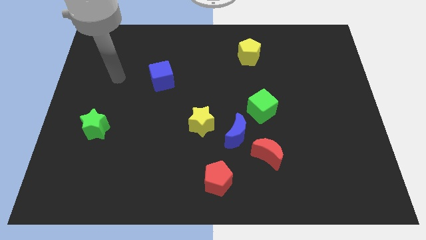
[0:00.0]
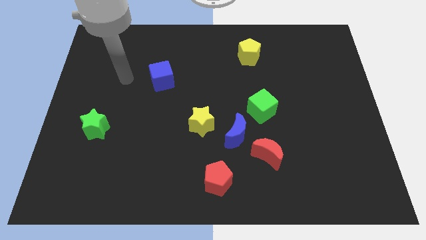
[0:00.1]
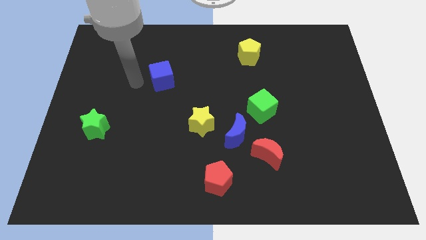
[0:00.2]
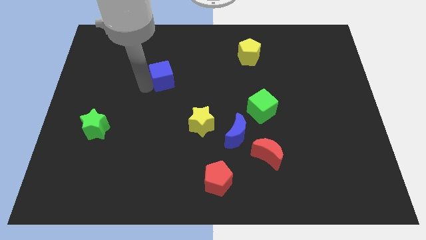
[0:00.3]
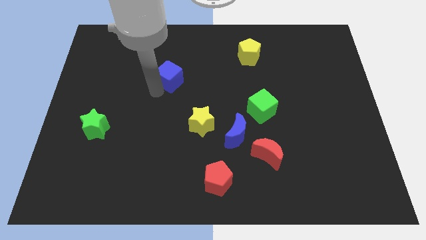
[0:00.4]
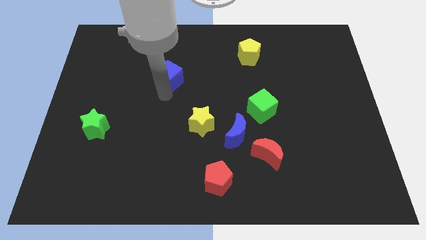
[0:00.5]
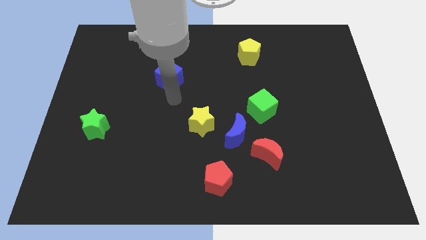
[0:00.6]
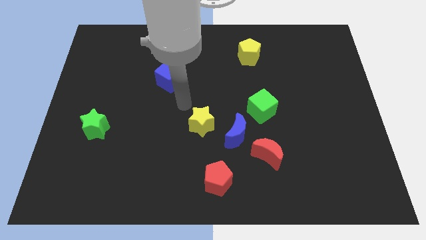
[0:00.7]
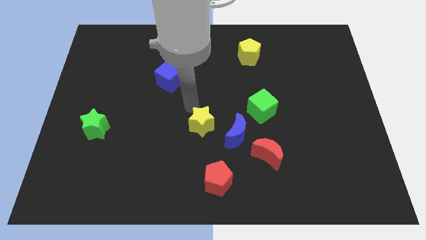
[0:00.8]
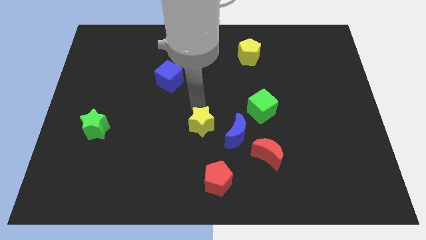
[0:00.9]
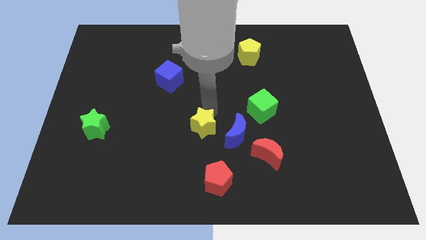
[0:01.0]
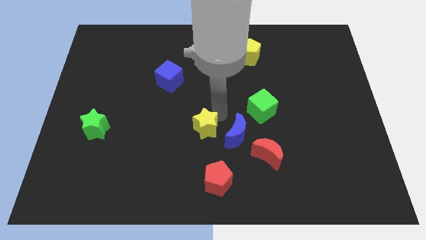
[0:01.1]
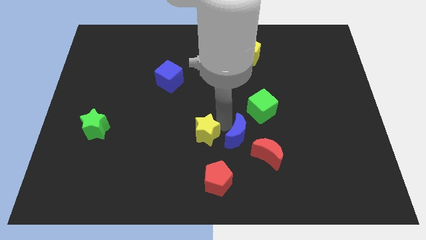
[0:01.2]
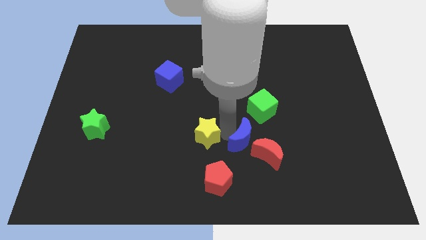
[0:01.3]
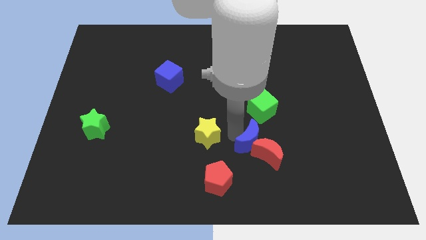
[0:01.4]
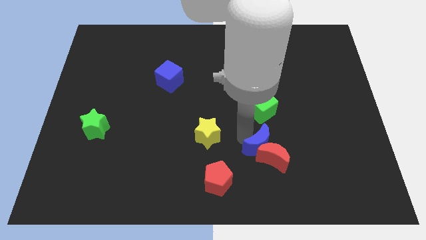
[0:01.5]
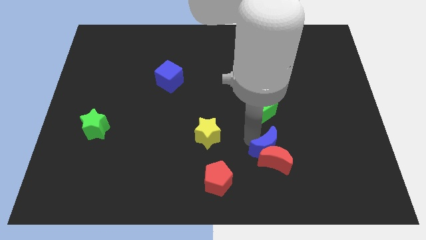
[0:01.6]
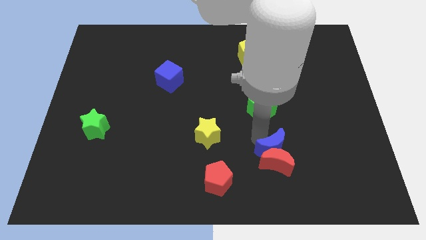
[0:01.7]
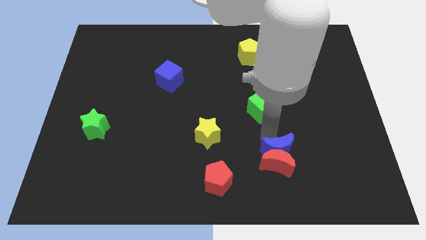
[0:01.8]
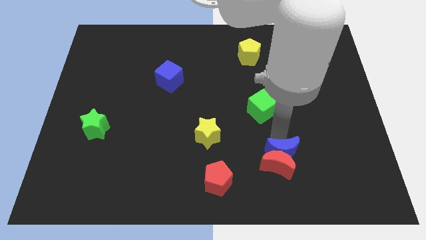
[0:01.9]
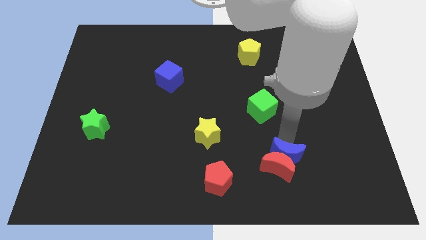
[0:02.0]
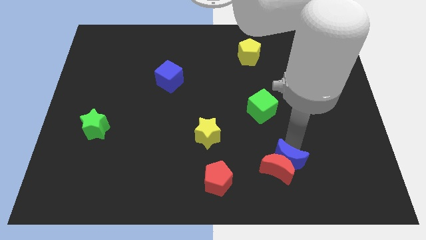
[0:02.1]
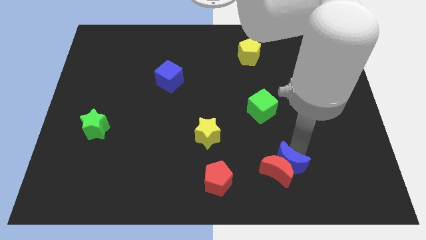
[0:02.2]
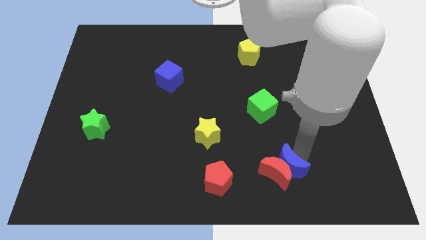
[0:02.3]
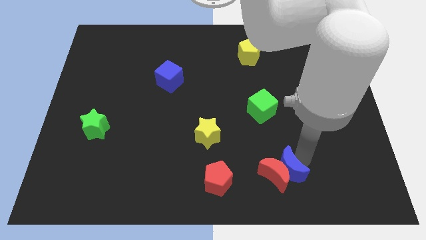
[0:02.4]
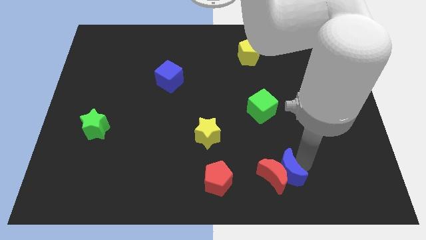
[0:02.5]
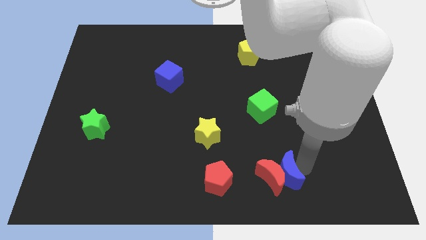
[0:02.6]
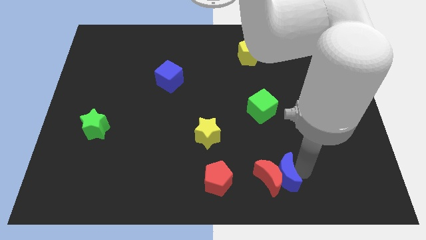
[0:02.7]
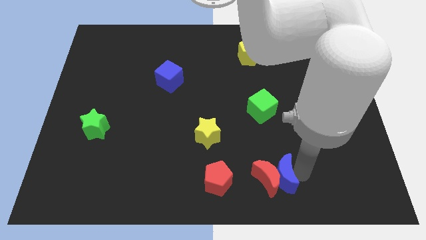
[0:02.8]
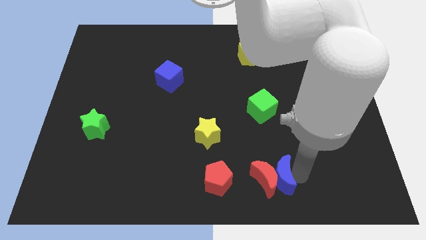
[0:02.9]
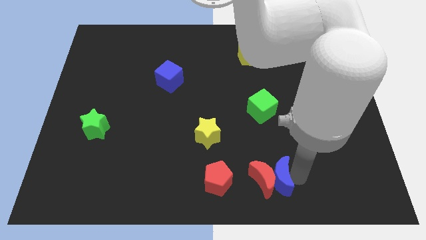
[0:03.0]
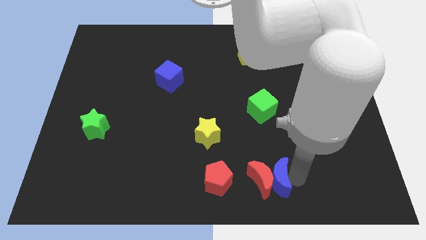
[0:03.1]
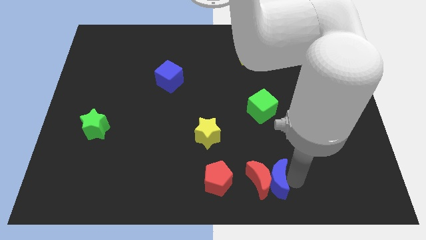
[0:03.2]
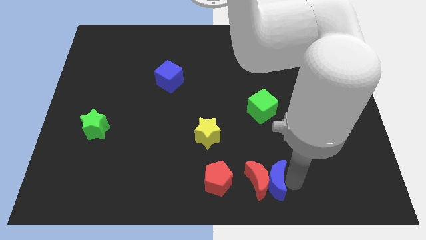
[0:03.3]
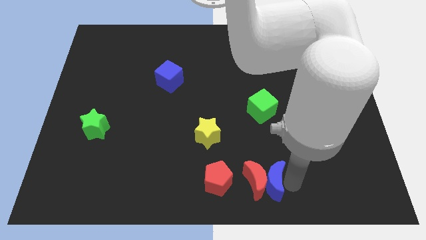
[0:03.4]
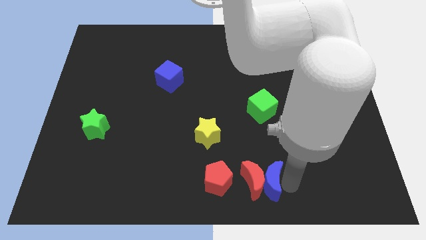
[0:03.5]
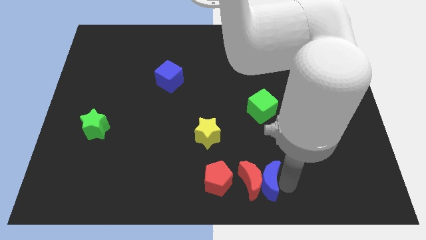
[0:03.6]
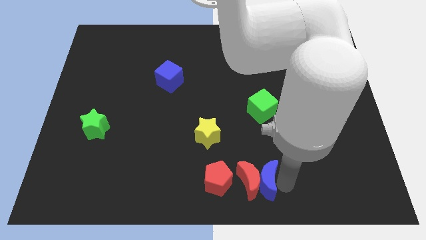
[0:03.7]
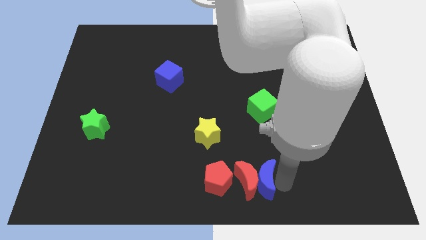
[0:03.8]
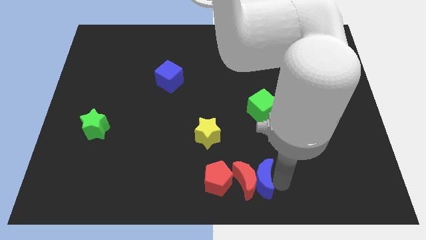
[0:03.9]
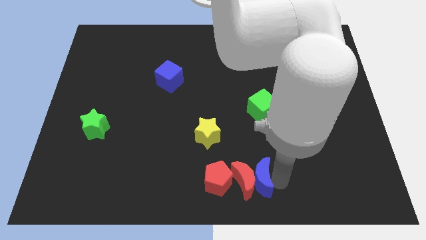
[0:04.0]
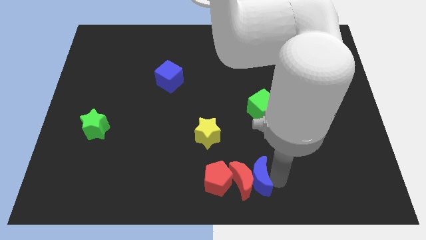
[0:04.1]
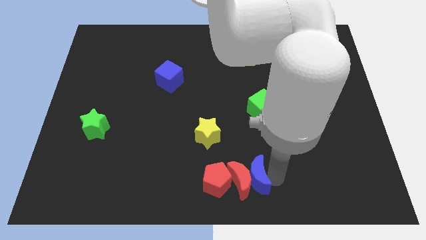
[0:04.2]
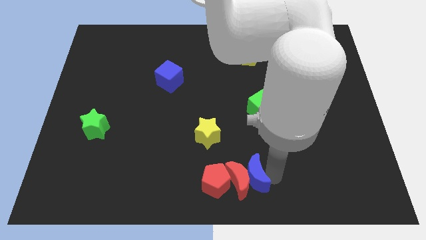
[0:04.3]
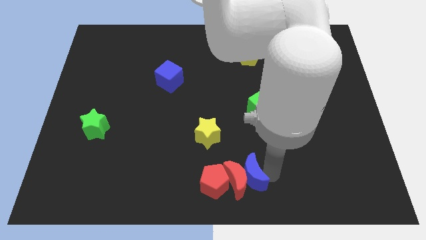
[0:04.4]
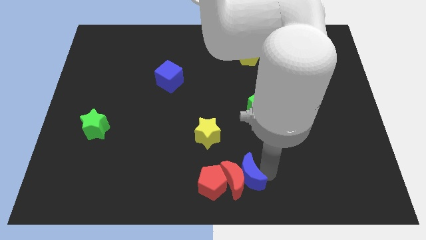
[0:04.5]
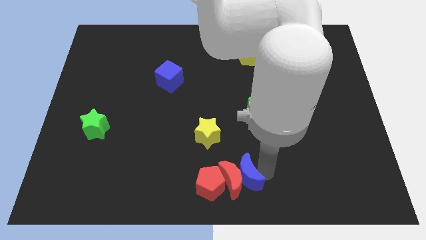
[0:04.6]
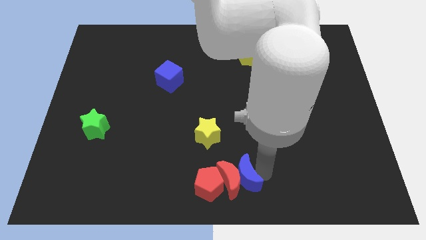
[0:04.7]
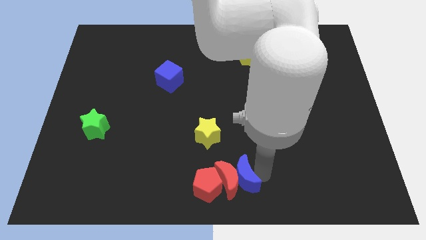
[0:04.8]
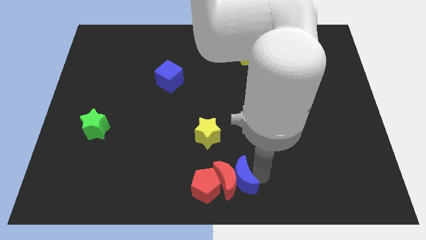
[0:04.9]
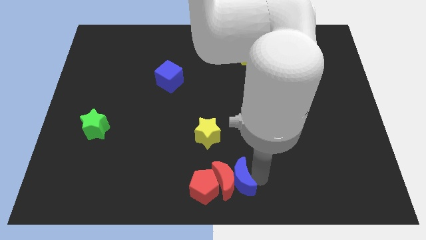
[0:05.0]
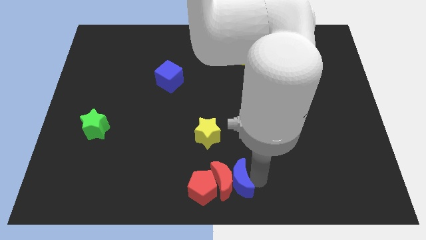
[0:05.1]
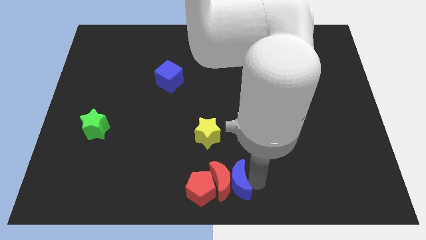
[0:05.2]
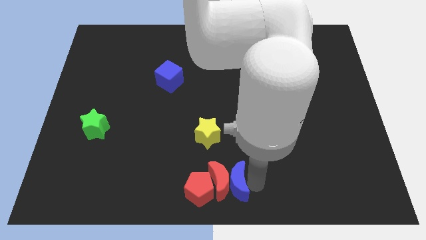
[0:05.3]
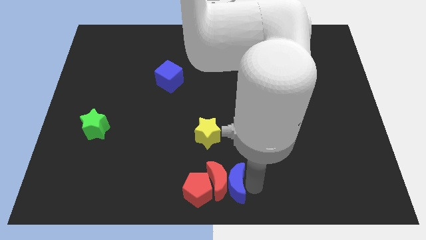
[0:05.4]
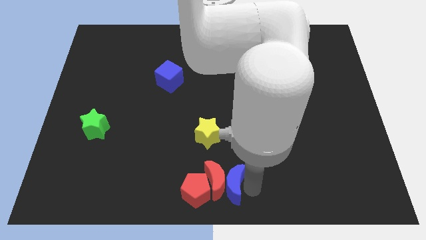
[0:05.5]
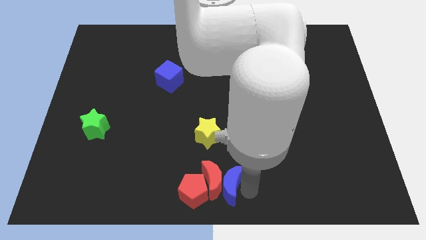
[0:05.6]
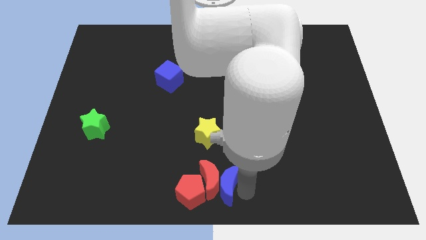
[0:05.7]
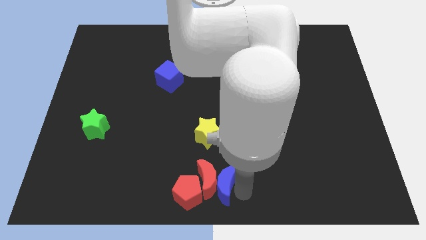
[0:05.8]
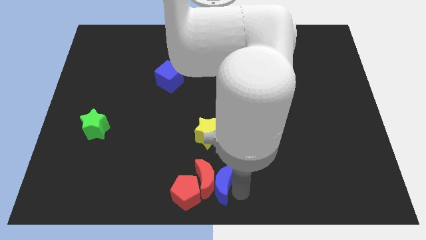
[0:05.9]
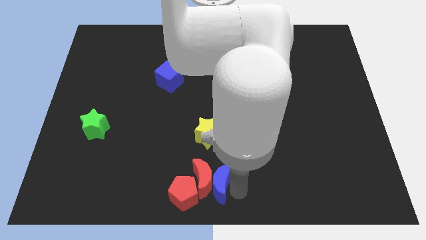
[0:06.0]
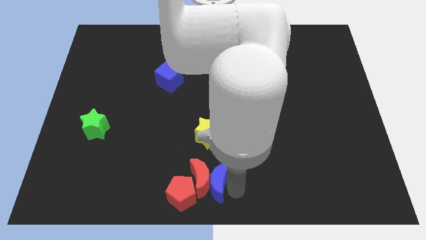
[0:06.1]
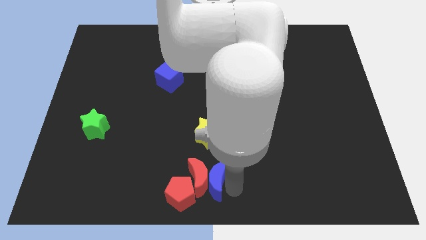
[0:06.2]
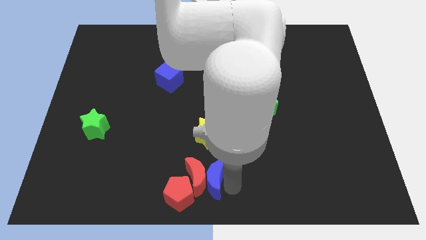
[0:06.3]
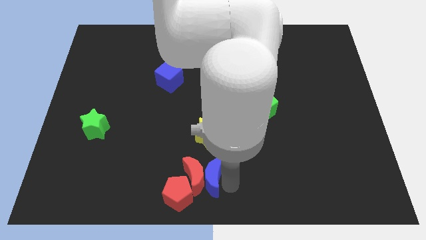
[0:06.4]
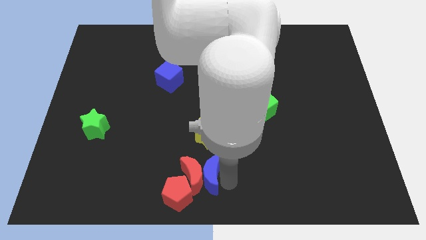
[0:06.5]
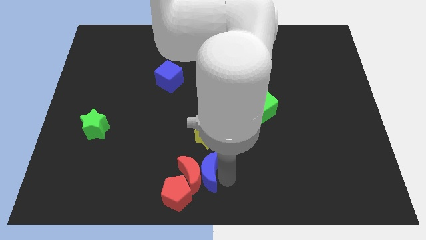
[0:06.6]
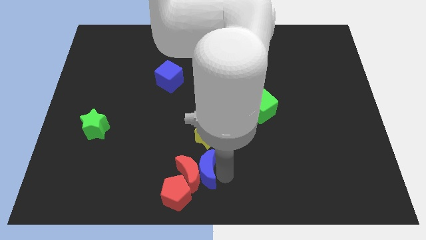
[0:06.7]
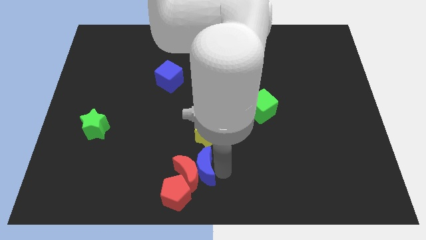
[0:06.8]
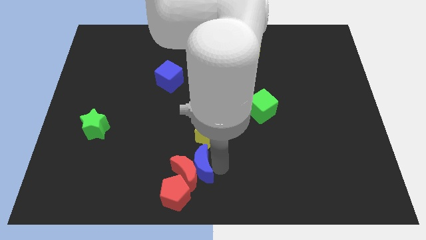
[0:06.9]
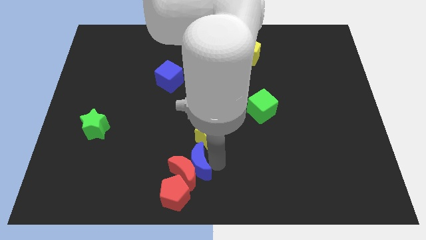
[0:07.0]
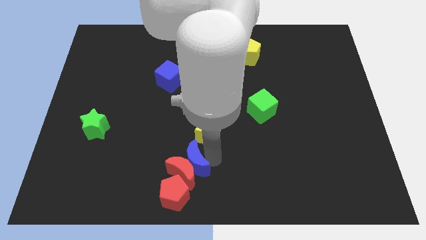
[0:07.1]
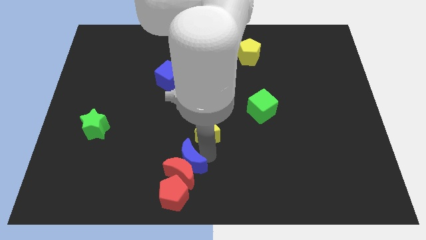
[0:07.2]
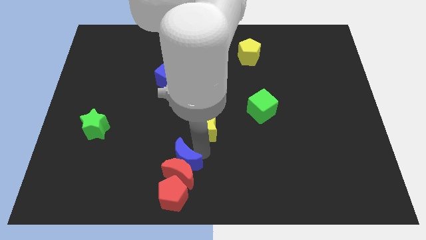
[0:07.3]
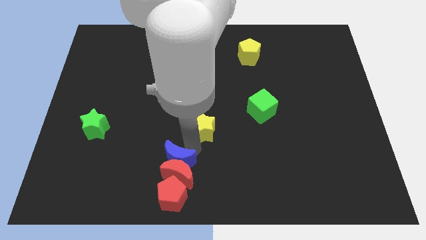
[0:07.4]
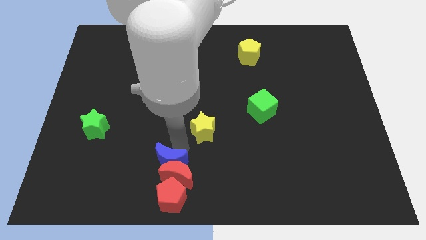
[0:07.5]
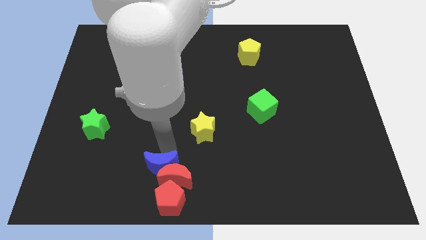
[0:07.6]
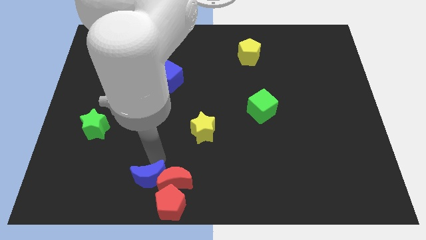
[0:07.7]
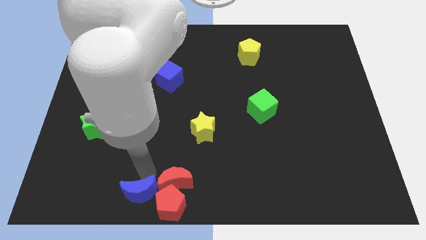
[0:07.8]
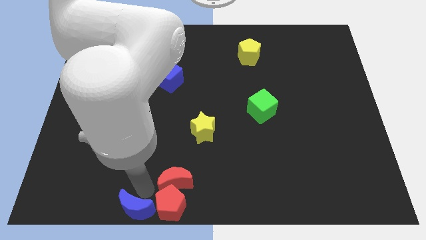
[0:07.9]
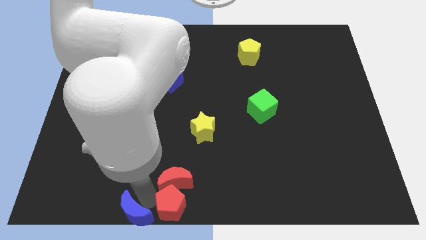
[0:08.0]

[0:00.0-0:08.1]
separate the red moon from the blue moon

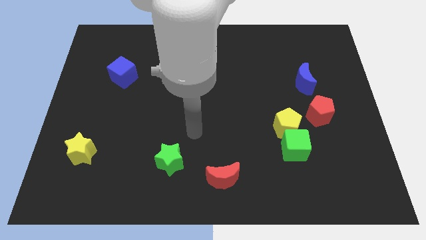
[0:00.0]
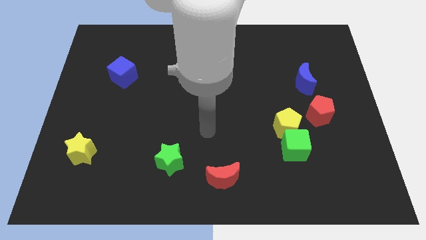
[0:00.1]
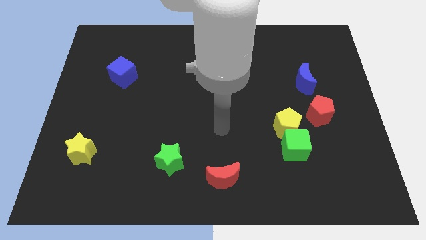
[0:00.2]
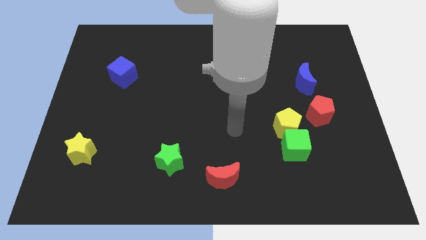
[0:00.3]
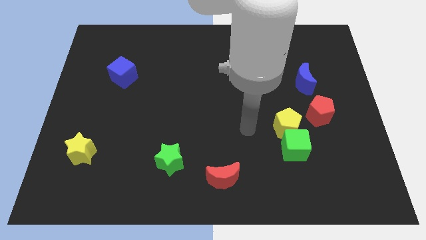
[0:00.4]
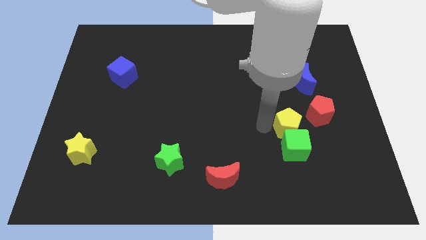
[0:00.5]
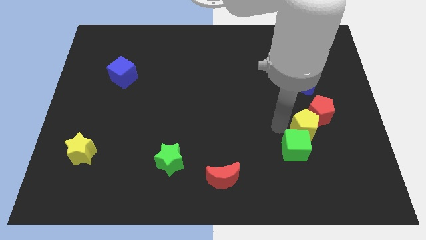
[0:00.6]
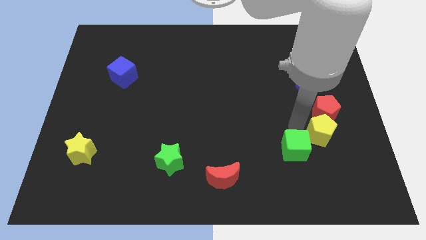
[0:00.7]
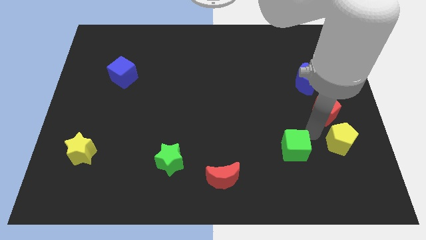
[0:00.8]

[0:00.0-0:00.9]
separate the green cube from the yellow pentagon

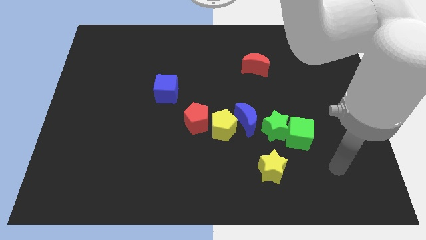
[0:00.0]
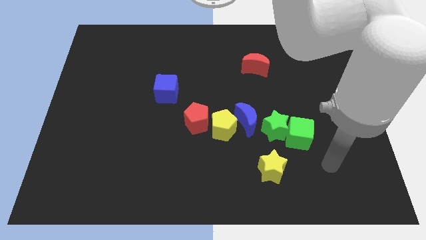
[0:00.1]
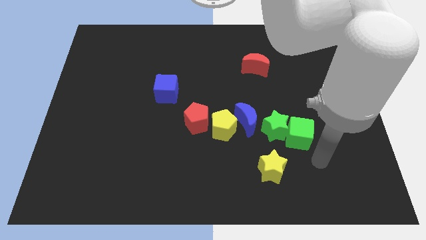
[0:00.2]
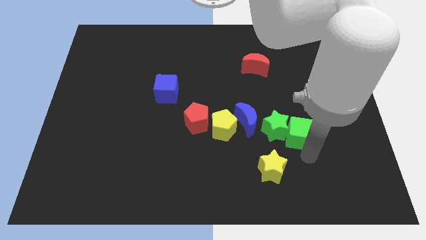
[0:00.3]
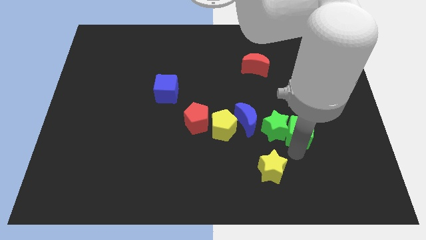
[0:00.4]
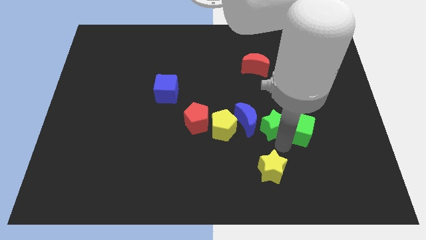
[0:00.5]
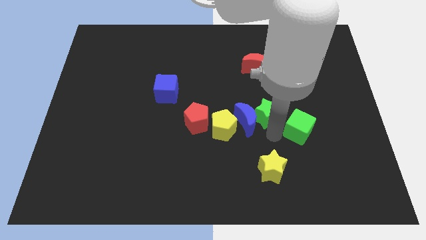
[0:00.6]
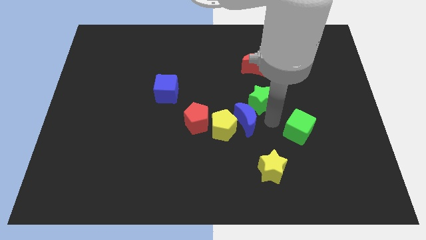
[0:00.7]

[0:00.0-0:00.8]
separate the green cube from the green star
